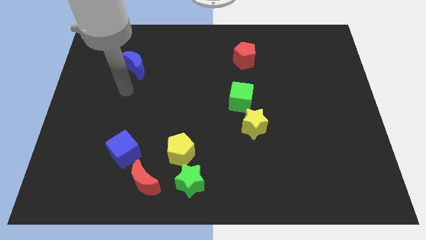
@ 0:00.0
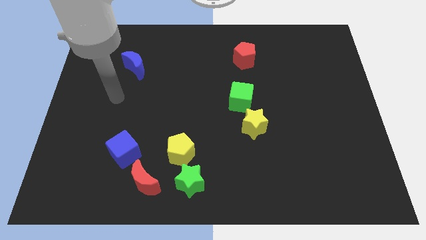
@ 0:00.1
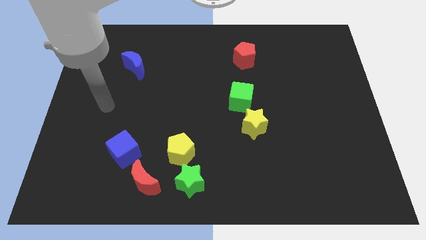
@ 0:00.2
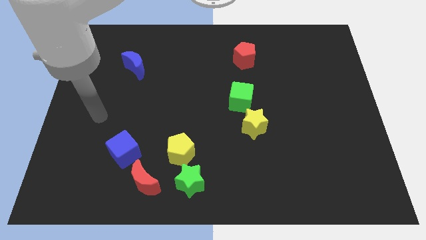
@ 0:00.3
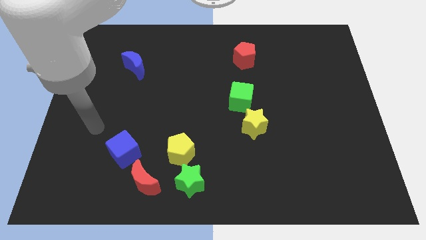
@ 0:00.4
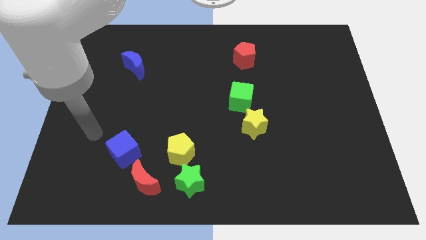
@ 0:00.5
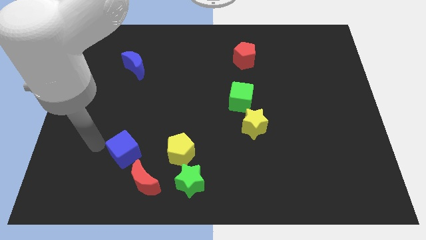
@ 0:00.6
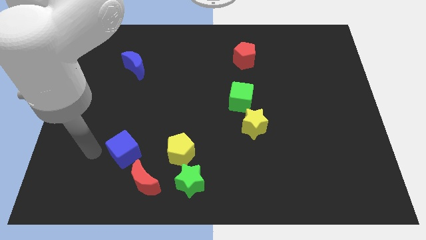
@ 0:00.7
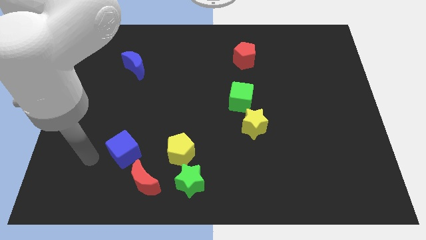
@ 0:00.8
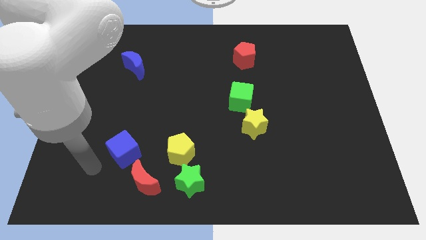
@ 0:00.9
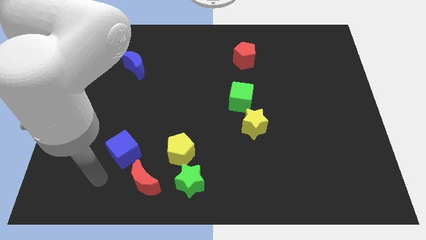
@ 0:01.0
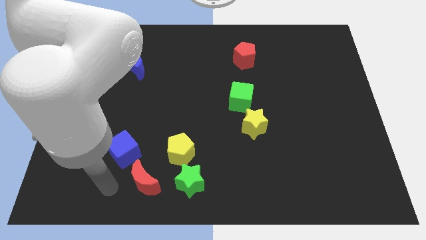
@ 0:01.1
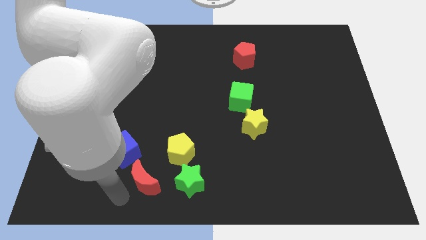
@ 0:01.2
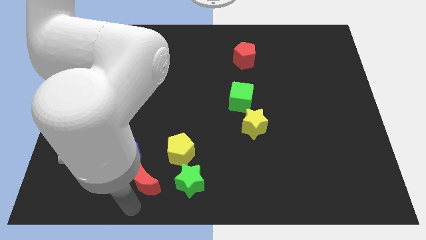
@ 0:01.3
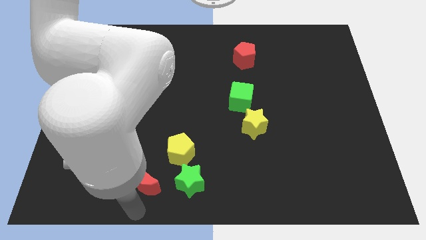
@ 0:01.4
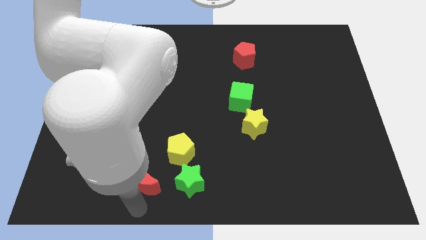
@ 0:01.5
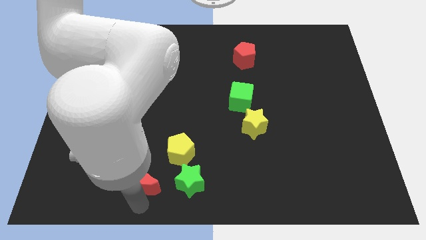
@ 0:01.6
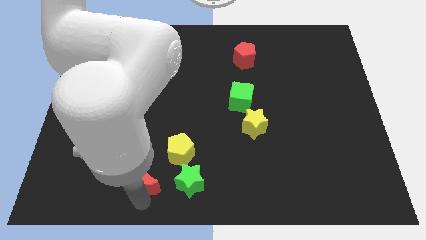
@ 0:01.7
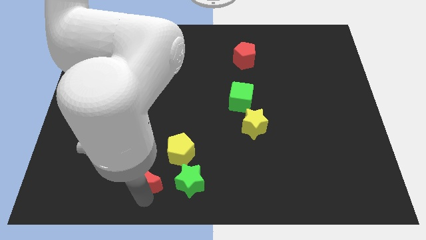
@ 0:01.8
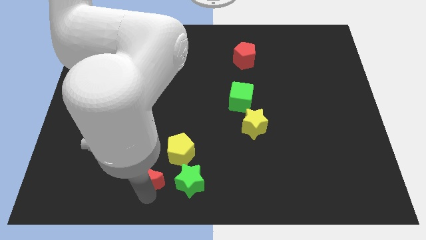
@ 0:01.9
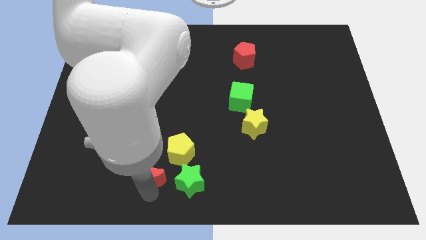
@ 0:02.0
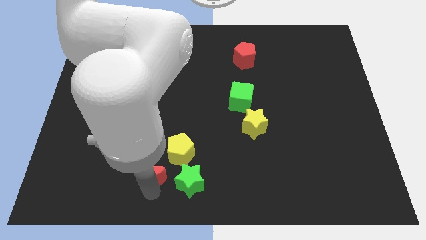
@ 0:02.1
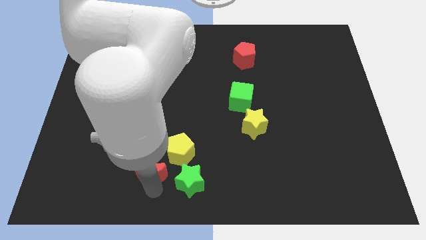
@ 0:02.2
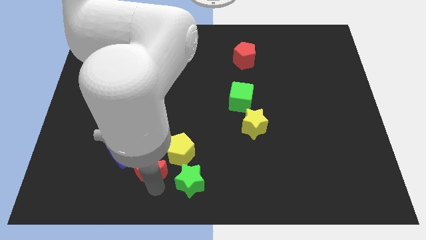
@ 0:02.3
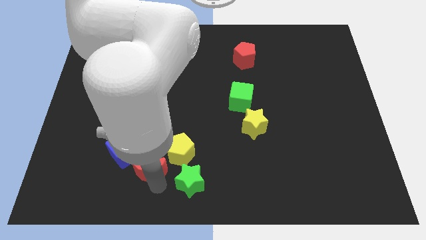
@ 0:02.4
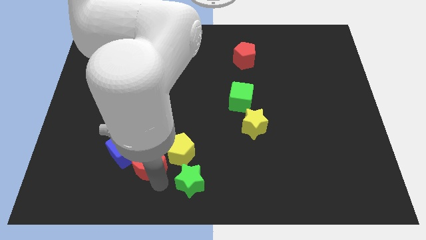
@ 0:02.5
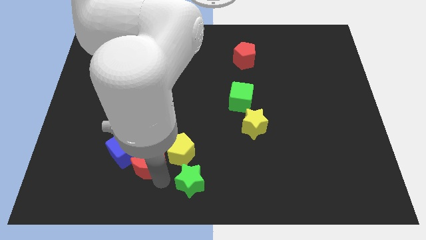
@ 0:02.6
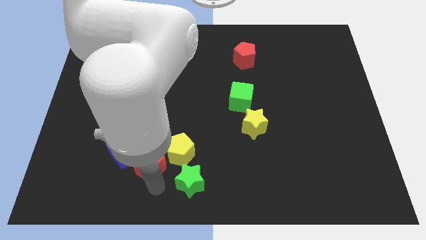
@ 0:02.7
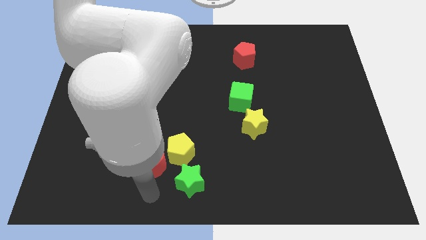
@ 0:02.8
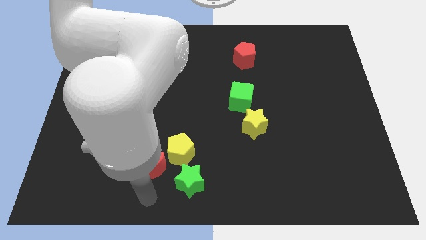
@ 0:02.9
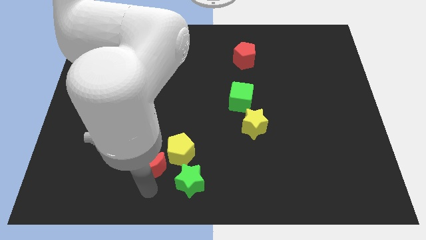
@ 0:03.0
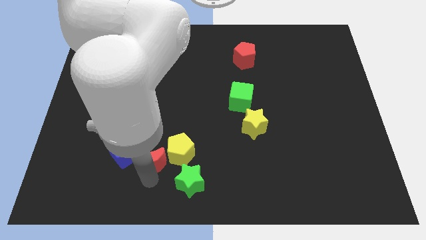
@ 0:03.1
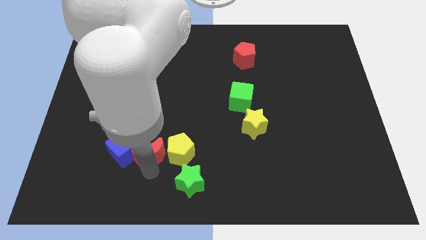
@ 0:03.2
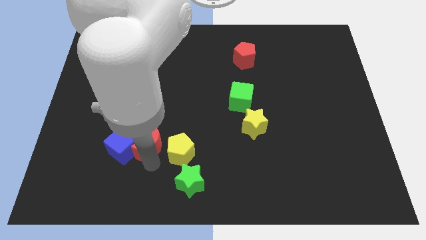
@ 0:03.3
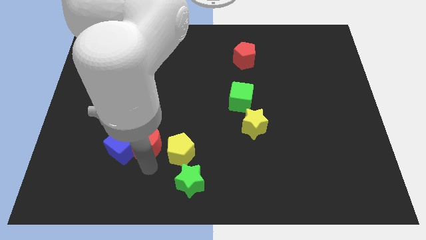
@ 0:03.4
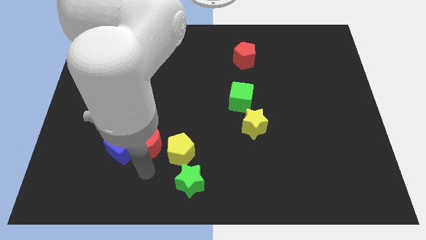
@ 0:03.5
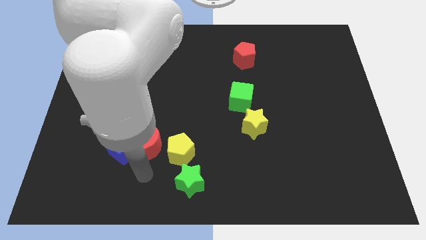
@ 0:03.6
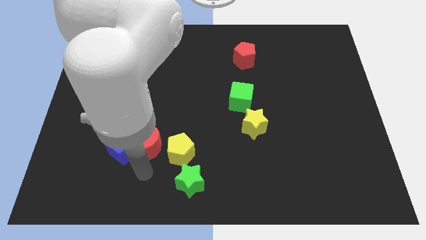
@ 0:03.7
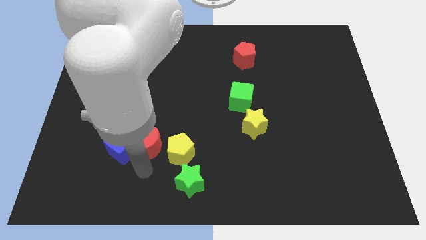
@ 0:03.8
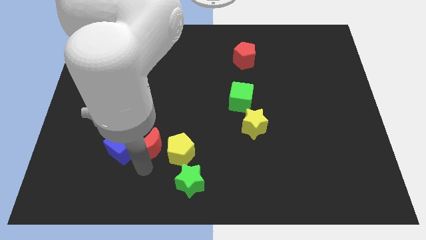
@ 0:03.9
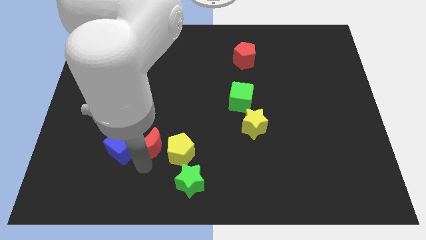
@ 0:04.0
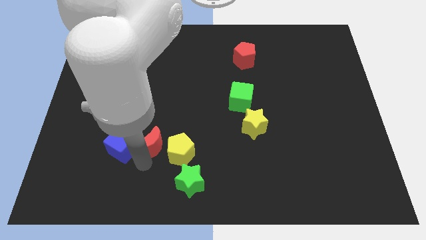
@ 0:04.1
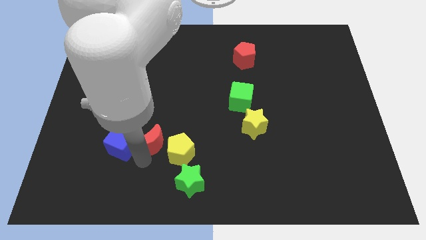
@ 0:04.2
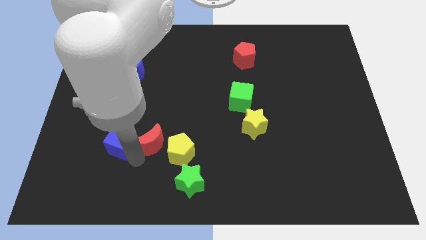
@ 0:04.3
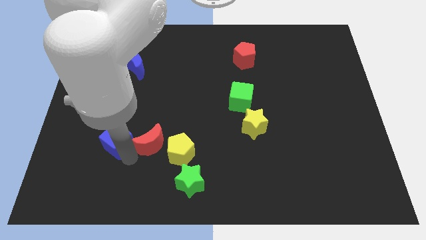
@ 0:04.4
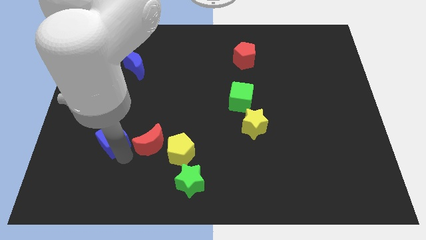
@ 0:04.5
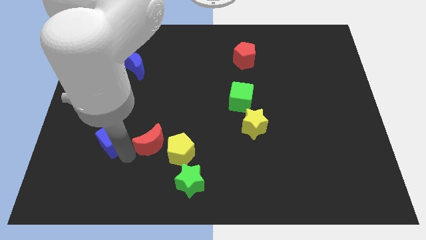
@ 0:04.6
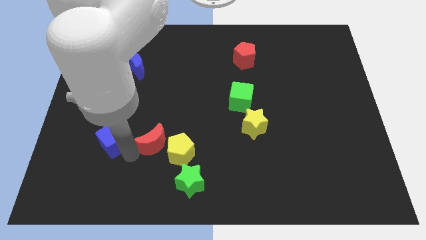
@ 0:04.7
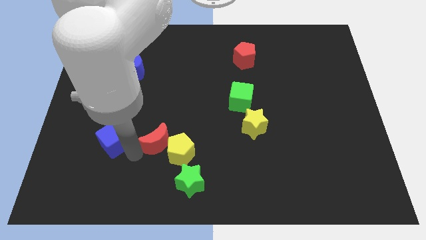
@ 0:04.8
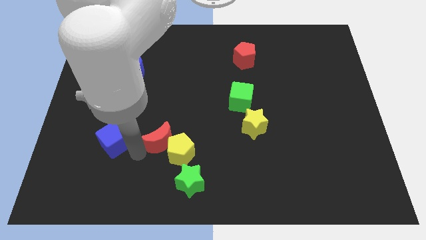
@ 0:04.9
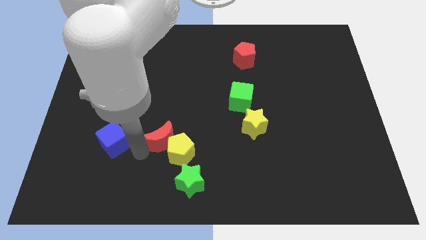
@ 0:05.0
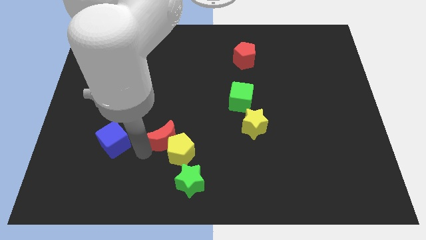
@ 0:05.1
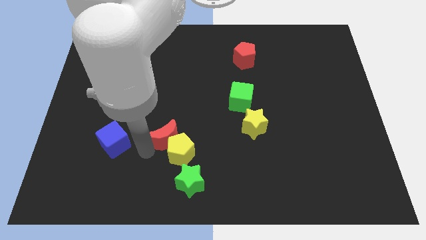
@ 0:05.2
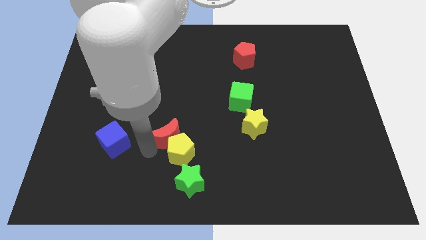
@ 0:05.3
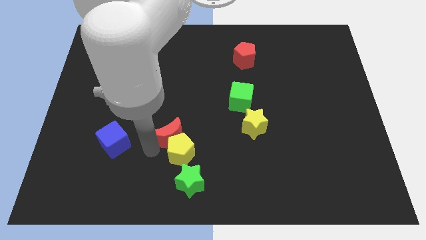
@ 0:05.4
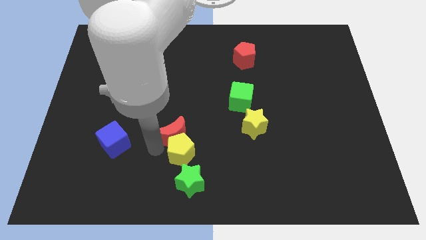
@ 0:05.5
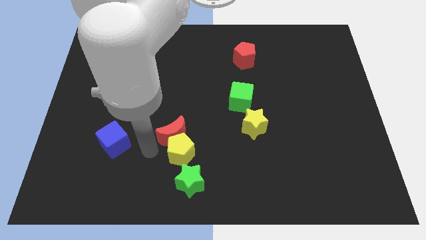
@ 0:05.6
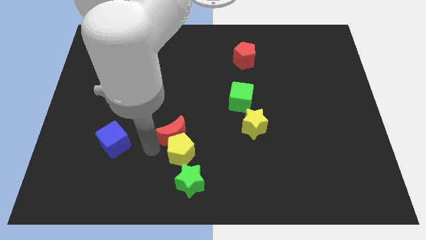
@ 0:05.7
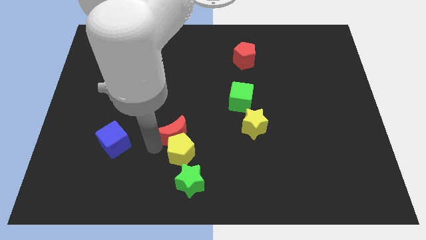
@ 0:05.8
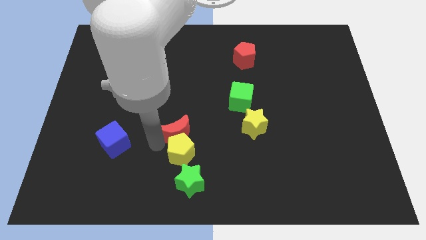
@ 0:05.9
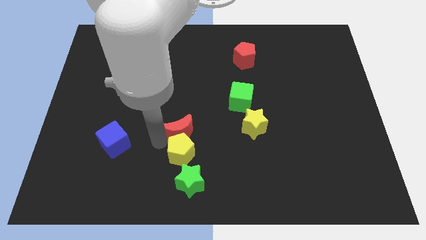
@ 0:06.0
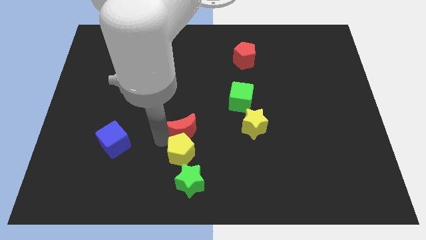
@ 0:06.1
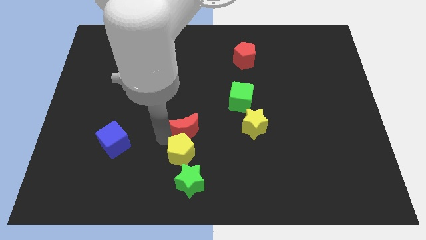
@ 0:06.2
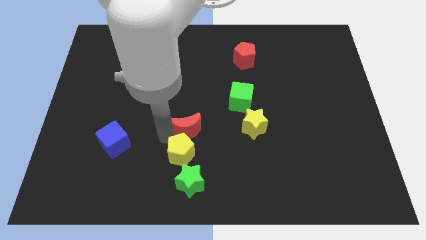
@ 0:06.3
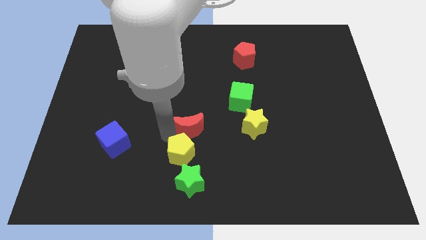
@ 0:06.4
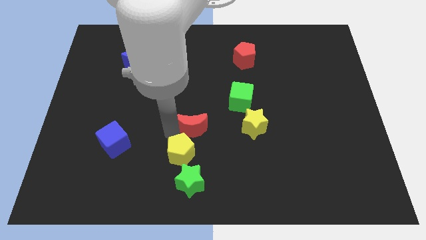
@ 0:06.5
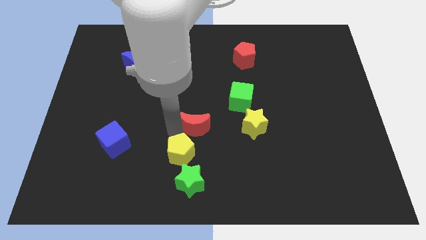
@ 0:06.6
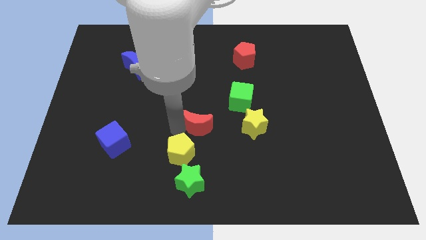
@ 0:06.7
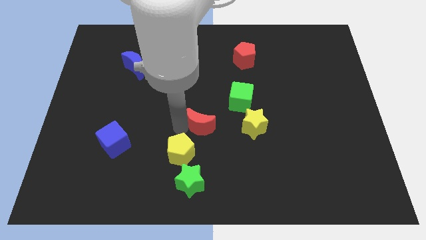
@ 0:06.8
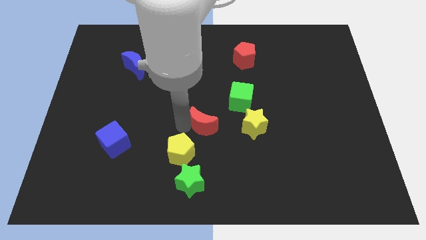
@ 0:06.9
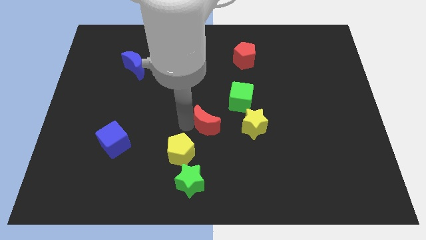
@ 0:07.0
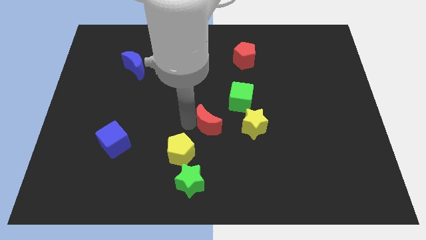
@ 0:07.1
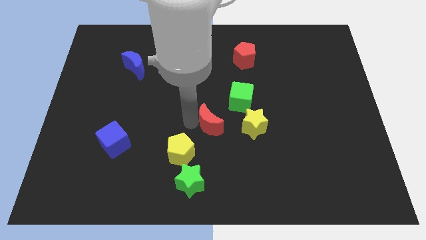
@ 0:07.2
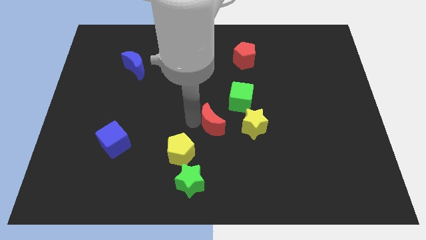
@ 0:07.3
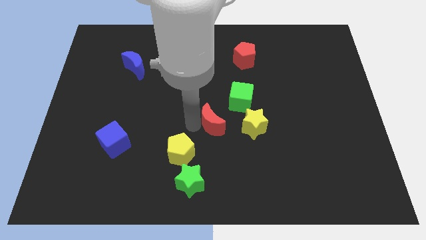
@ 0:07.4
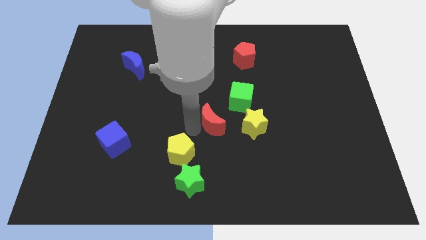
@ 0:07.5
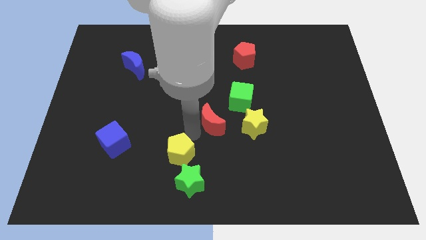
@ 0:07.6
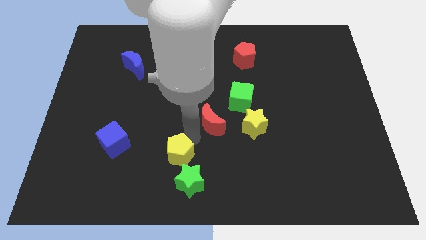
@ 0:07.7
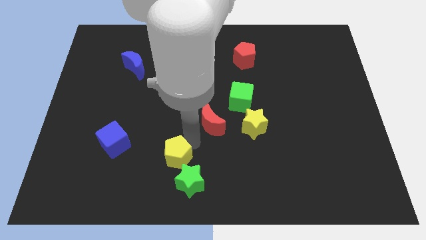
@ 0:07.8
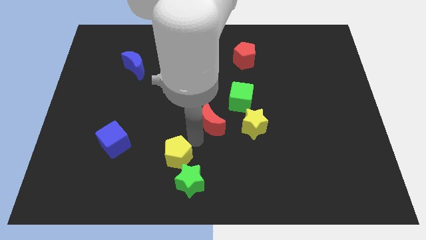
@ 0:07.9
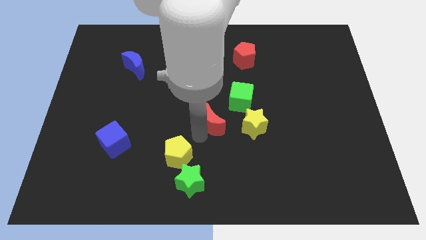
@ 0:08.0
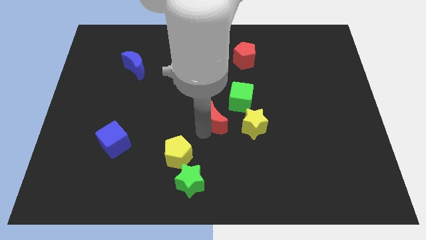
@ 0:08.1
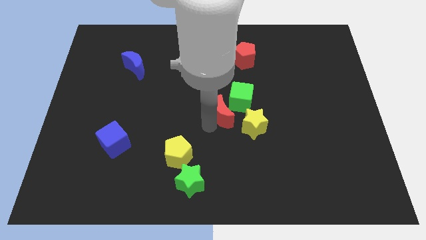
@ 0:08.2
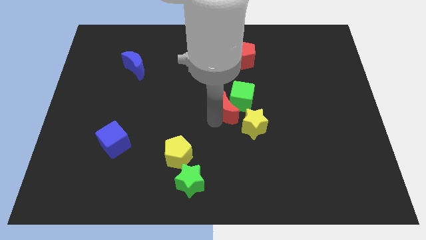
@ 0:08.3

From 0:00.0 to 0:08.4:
slide the red moon close to the green cube
